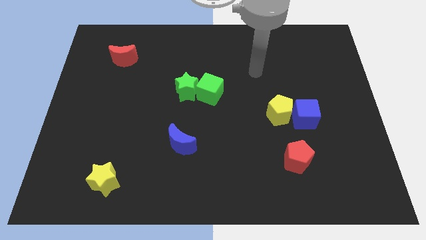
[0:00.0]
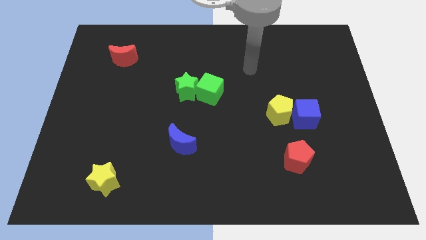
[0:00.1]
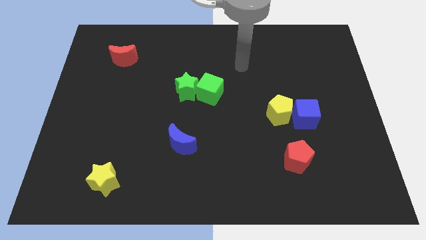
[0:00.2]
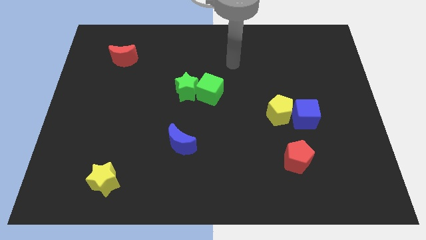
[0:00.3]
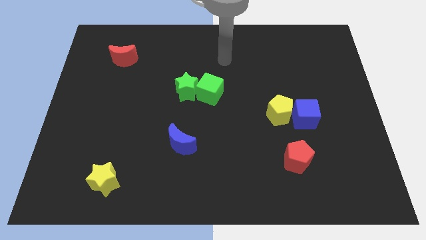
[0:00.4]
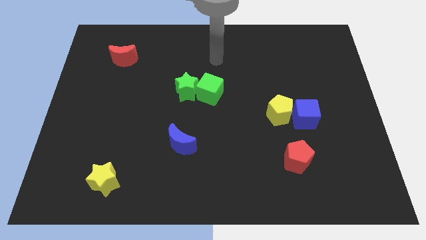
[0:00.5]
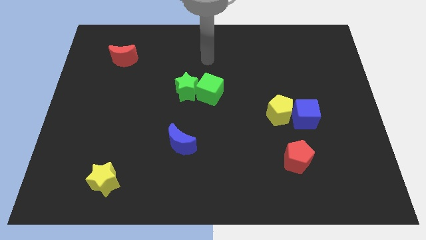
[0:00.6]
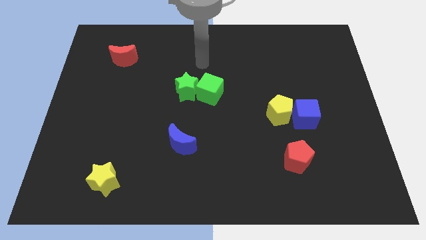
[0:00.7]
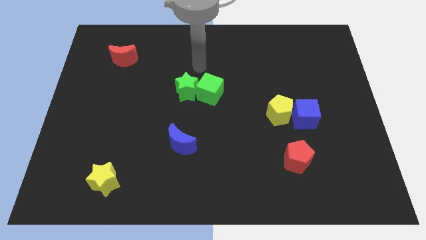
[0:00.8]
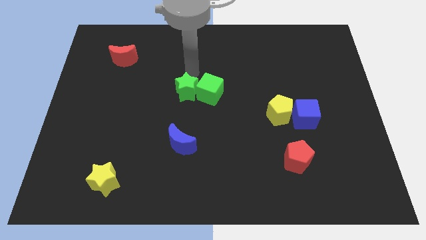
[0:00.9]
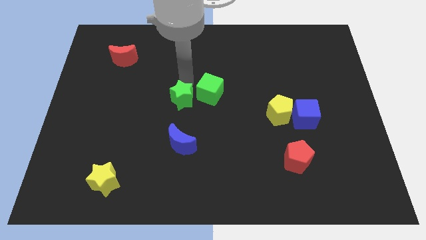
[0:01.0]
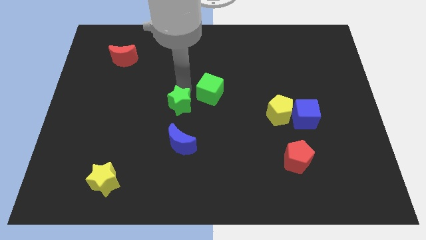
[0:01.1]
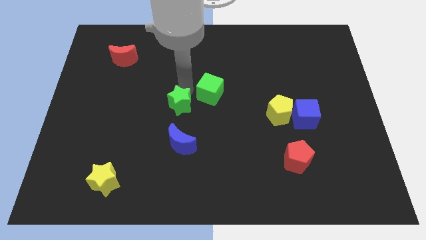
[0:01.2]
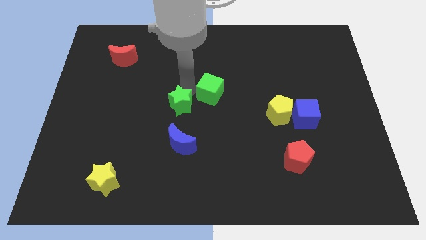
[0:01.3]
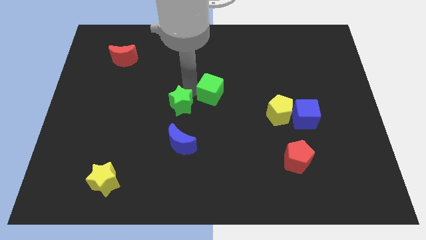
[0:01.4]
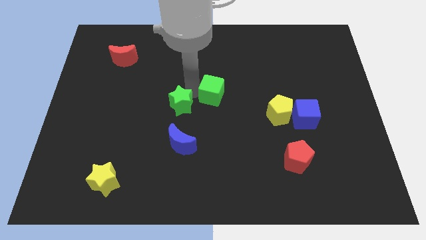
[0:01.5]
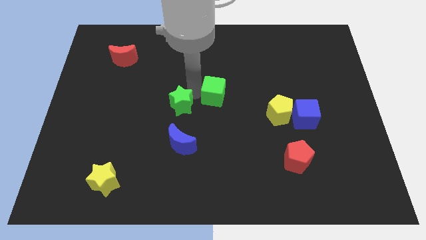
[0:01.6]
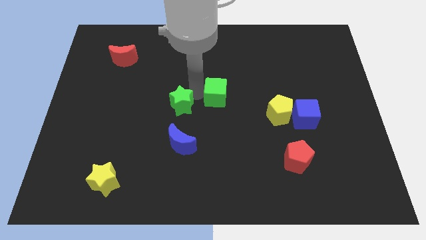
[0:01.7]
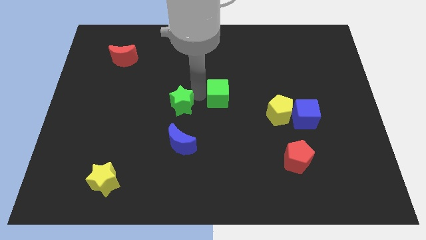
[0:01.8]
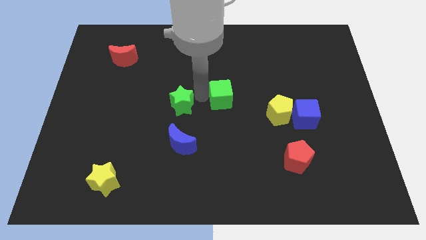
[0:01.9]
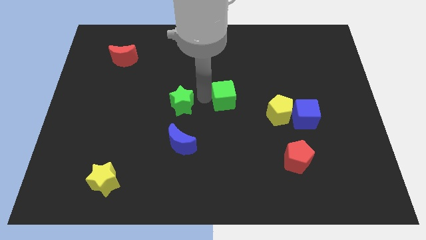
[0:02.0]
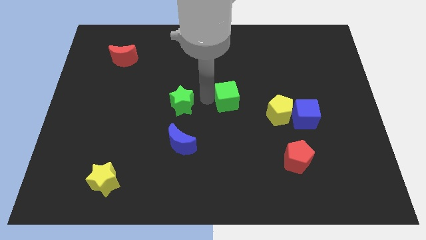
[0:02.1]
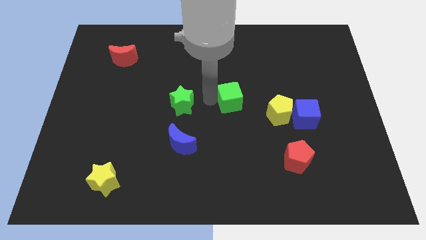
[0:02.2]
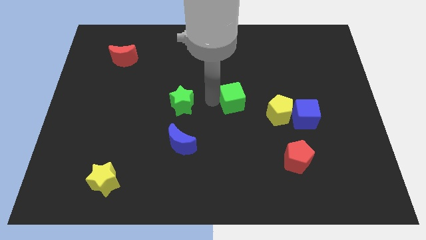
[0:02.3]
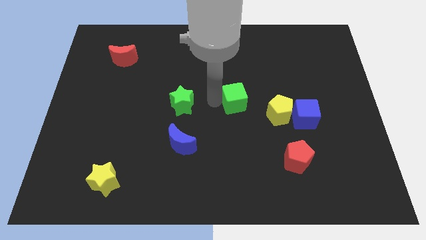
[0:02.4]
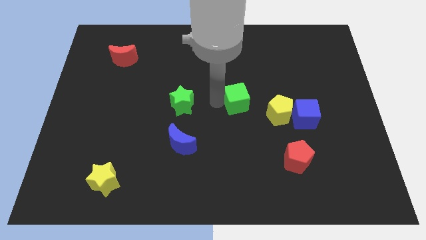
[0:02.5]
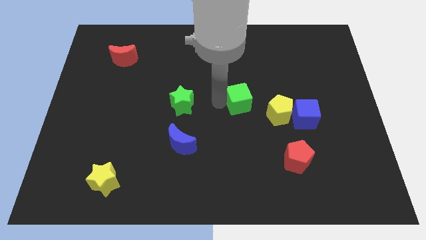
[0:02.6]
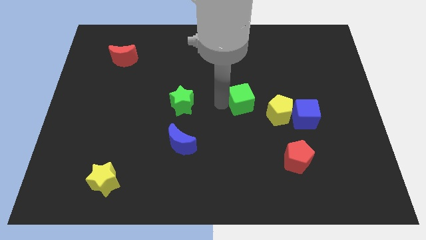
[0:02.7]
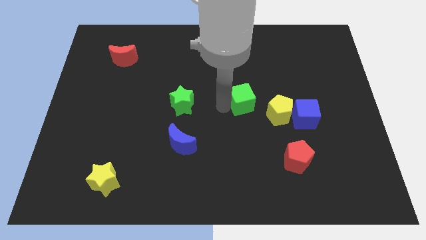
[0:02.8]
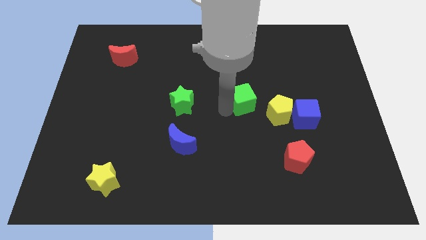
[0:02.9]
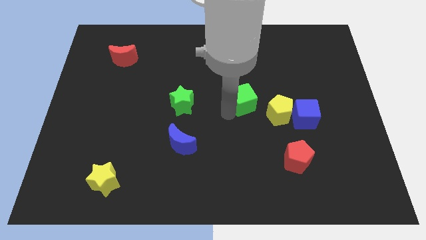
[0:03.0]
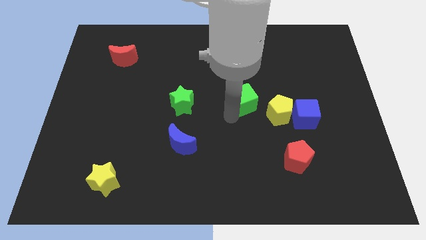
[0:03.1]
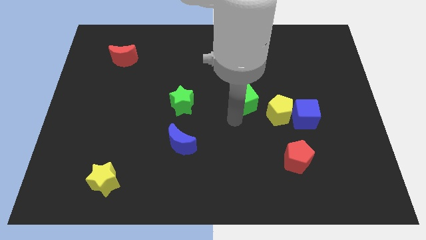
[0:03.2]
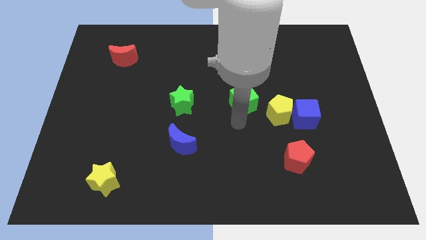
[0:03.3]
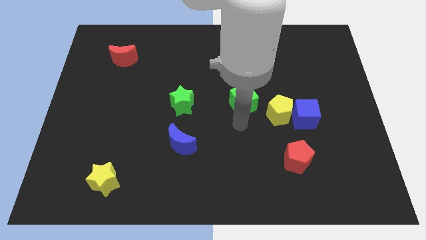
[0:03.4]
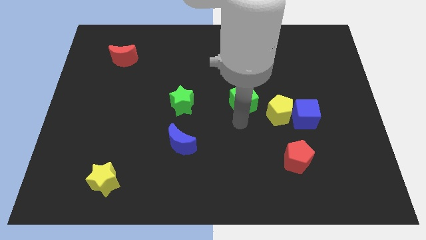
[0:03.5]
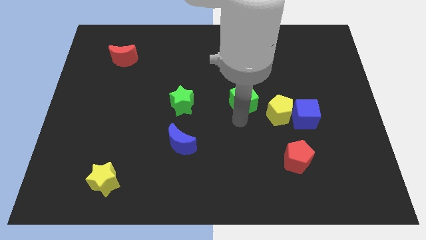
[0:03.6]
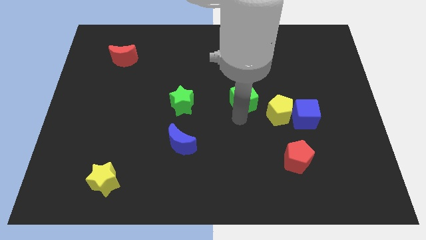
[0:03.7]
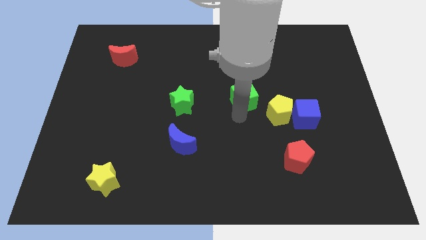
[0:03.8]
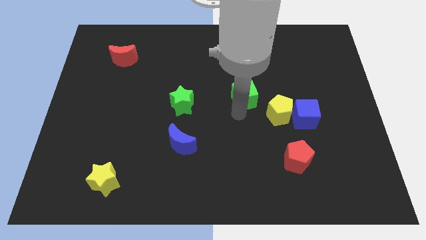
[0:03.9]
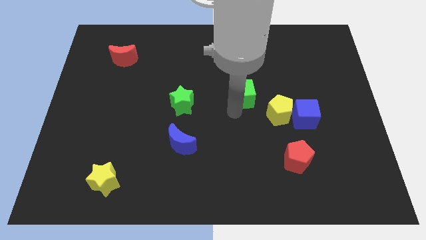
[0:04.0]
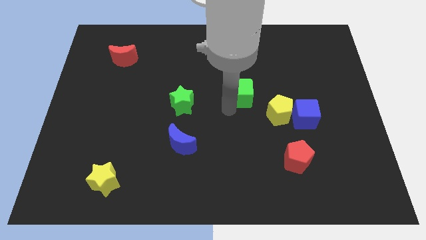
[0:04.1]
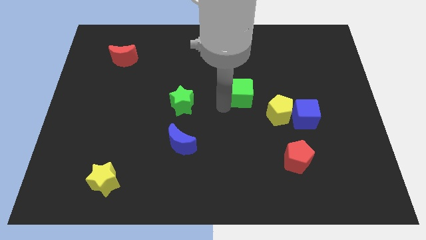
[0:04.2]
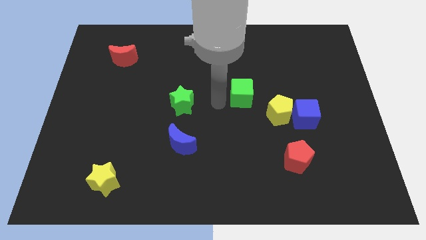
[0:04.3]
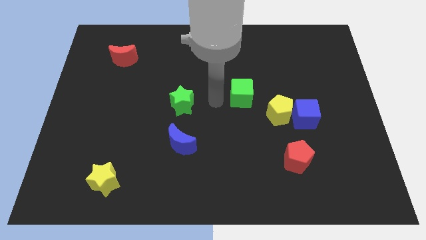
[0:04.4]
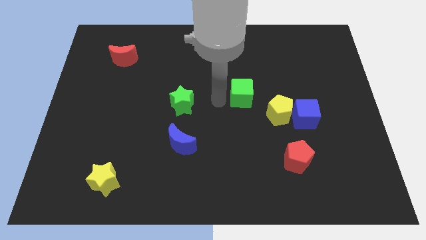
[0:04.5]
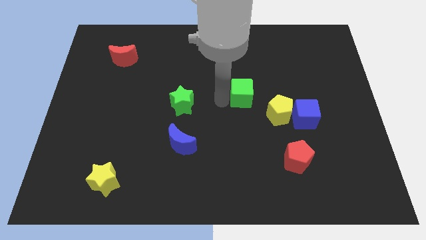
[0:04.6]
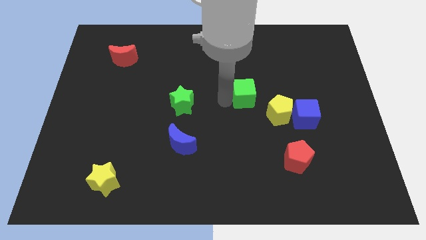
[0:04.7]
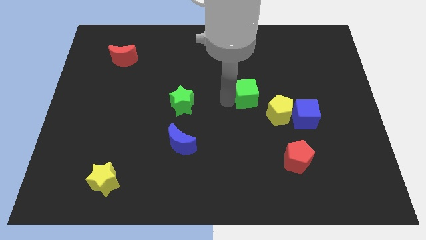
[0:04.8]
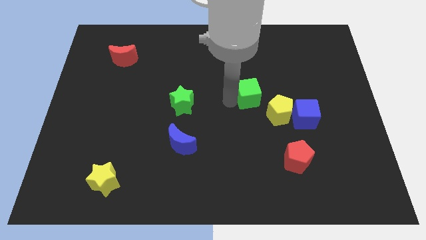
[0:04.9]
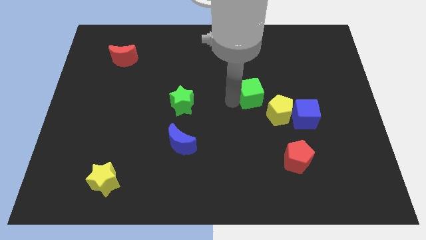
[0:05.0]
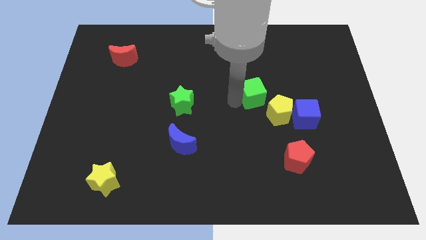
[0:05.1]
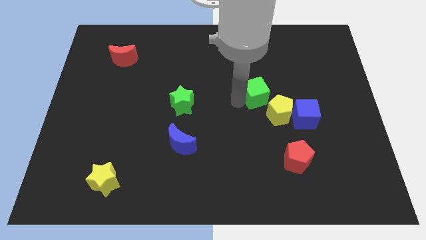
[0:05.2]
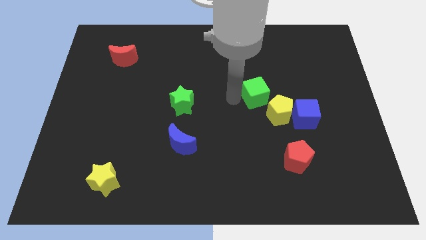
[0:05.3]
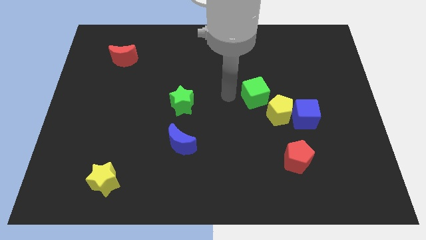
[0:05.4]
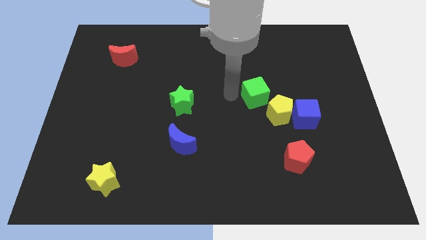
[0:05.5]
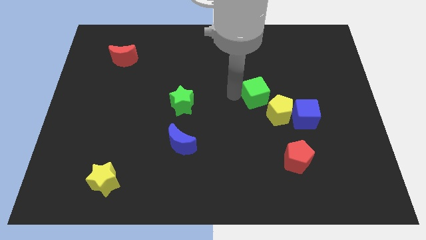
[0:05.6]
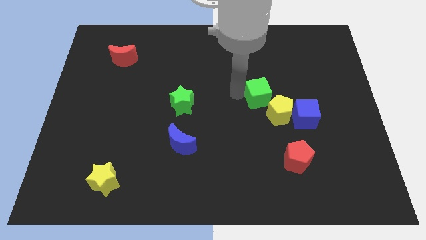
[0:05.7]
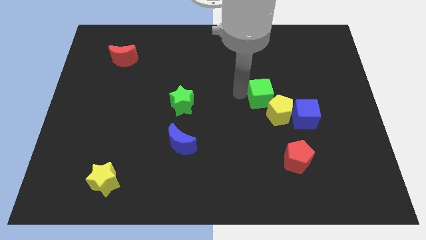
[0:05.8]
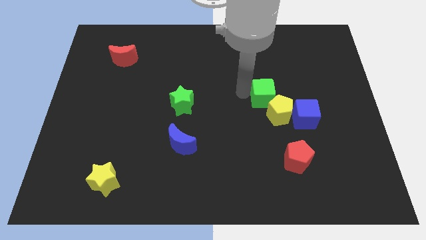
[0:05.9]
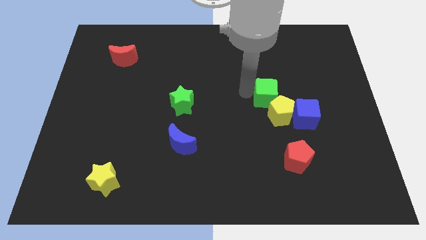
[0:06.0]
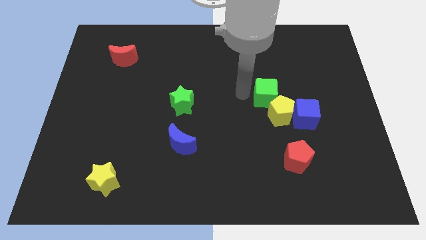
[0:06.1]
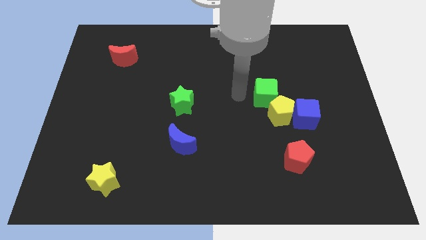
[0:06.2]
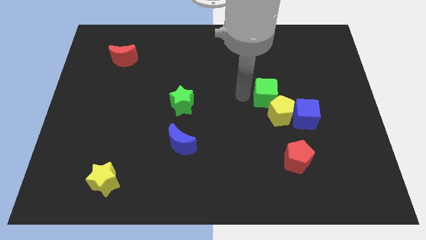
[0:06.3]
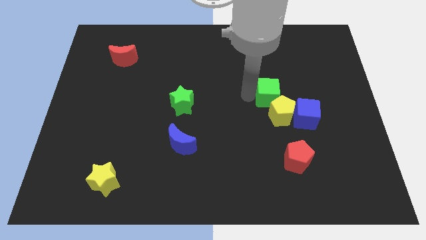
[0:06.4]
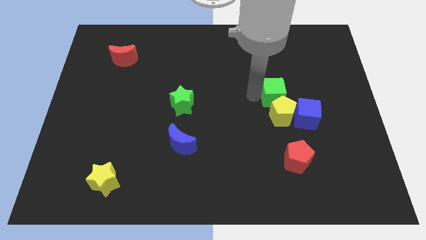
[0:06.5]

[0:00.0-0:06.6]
push the green cube to the top right side of the yellow pentagon
